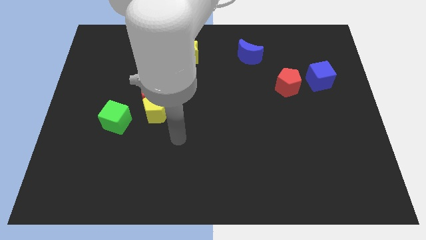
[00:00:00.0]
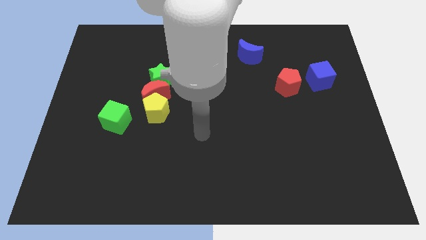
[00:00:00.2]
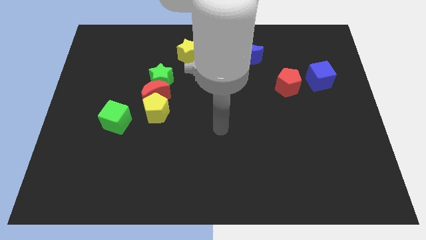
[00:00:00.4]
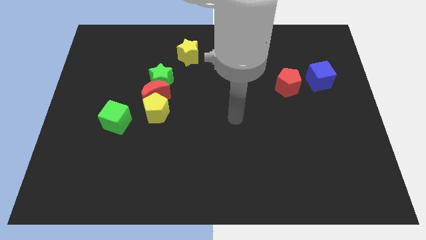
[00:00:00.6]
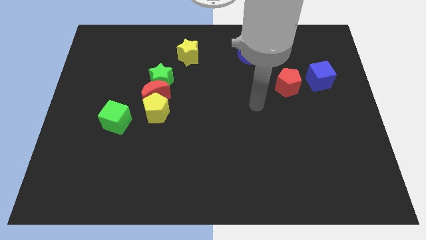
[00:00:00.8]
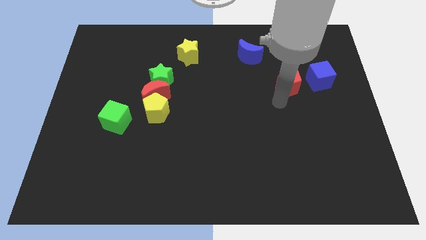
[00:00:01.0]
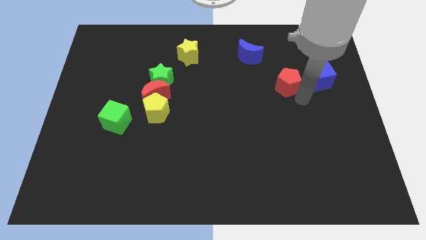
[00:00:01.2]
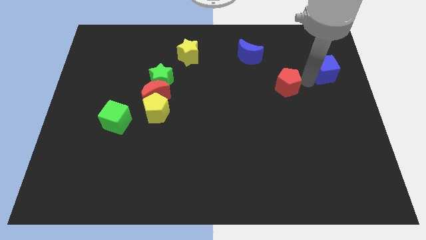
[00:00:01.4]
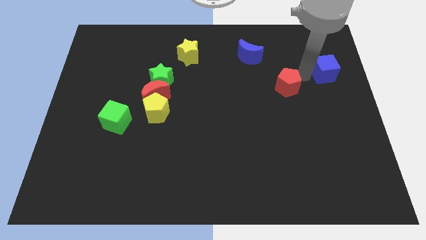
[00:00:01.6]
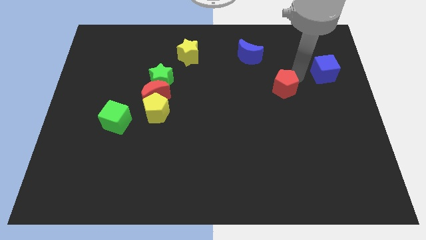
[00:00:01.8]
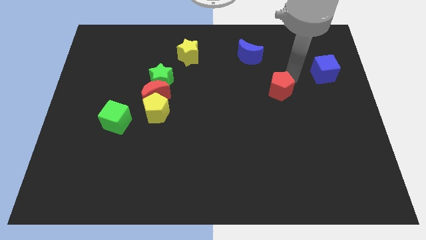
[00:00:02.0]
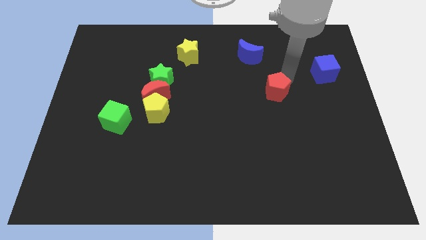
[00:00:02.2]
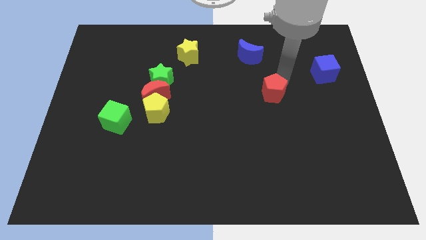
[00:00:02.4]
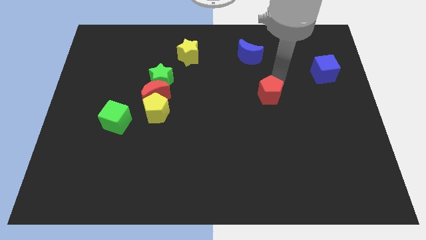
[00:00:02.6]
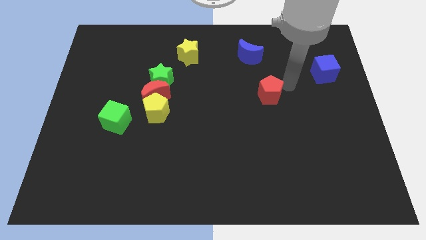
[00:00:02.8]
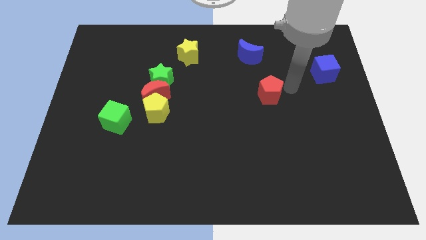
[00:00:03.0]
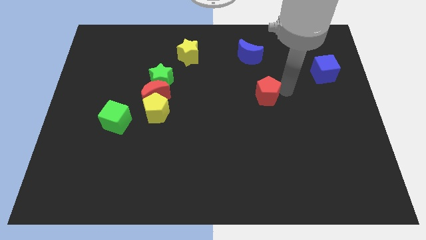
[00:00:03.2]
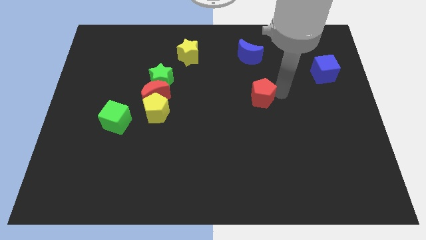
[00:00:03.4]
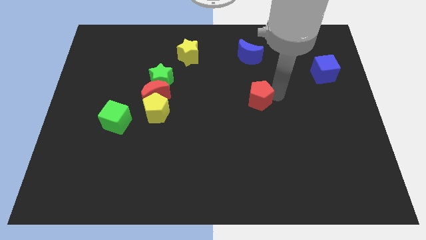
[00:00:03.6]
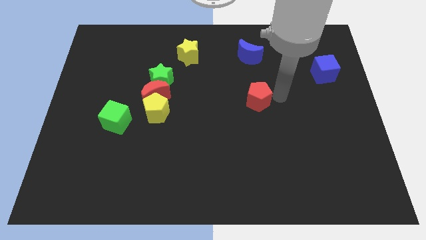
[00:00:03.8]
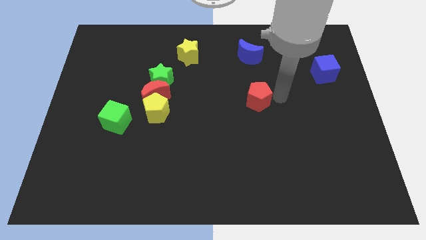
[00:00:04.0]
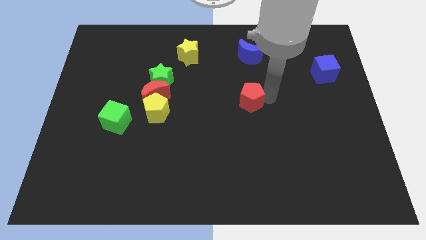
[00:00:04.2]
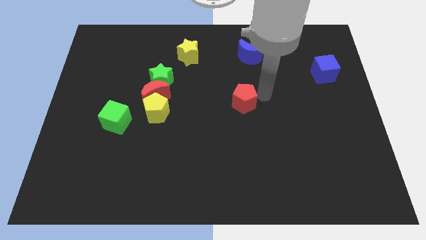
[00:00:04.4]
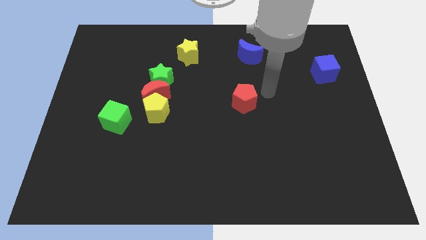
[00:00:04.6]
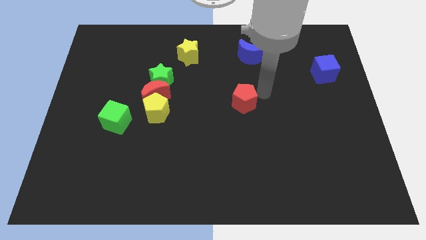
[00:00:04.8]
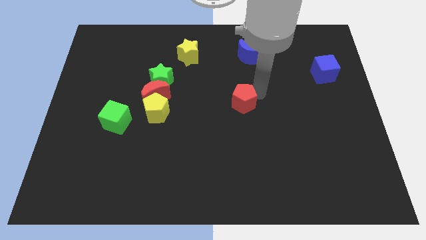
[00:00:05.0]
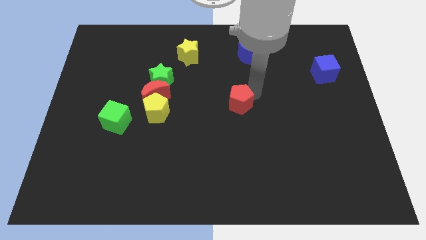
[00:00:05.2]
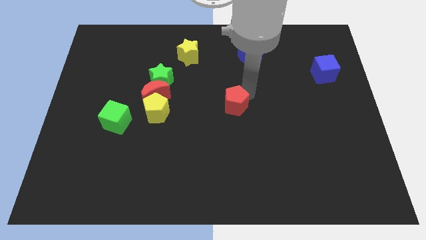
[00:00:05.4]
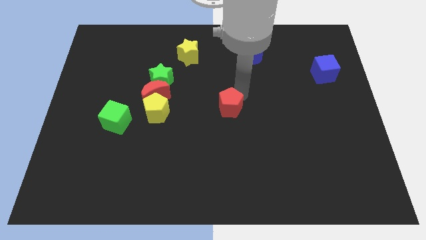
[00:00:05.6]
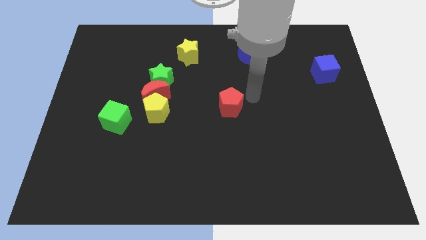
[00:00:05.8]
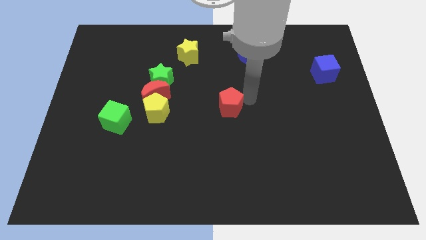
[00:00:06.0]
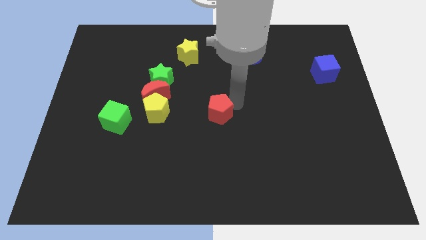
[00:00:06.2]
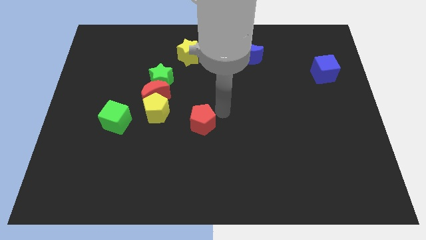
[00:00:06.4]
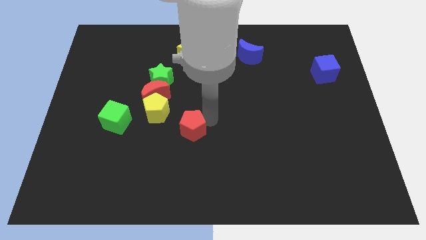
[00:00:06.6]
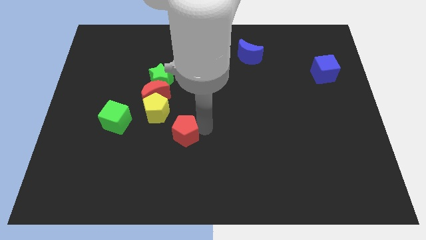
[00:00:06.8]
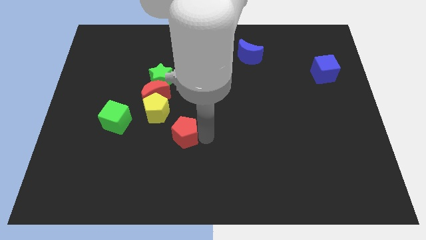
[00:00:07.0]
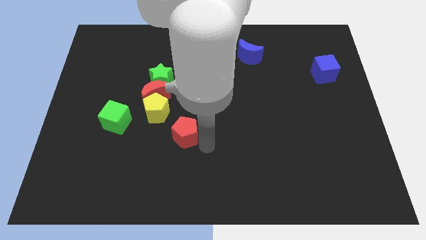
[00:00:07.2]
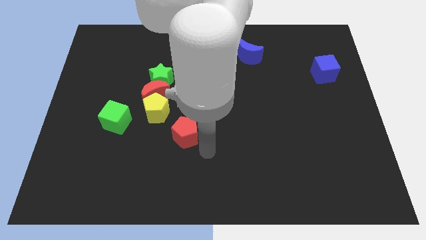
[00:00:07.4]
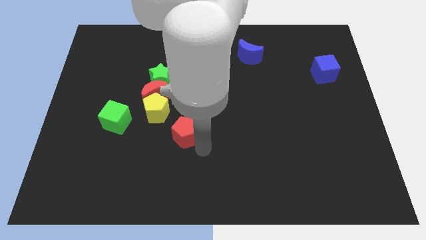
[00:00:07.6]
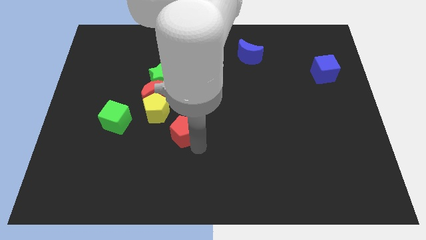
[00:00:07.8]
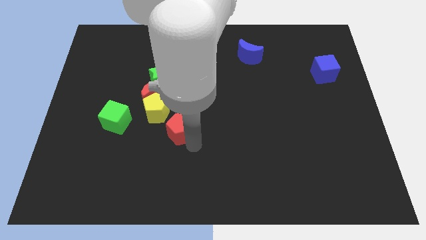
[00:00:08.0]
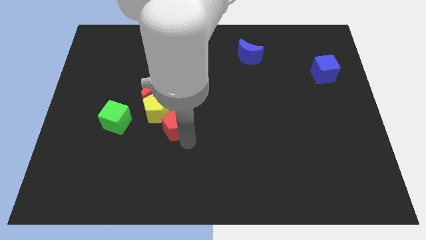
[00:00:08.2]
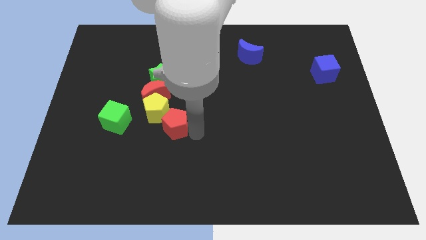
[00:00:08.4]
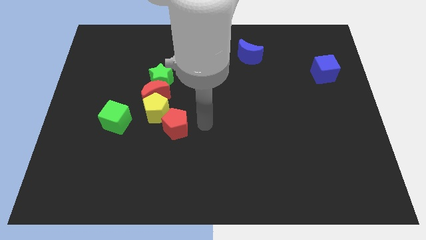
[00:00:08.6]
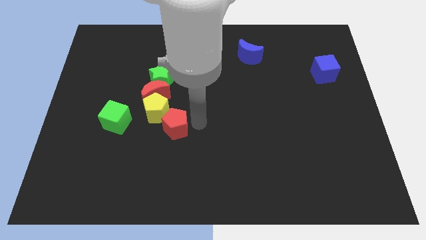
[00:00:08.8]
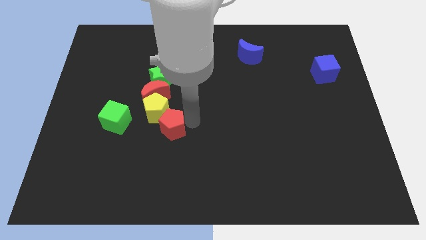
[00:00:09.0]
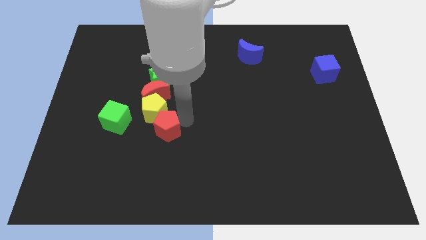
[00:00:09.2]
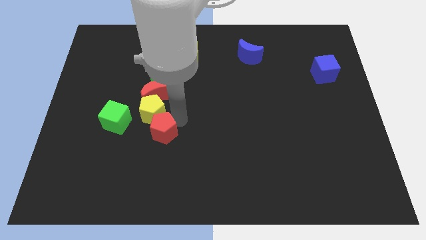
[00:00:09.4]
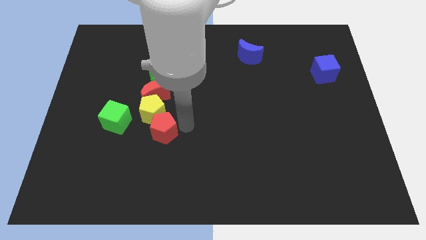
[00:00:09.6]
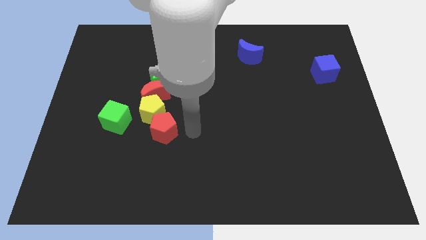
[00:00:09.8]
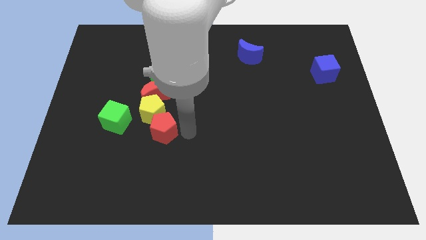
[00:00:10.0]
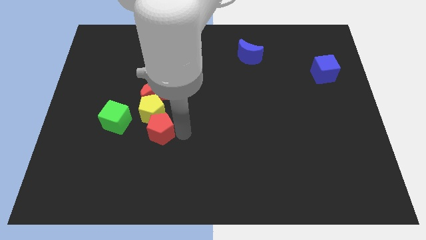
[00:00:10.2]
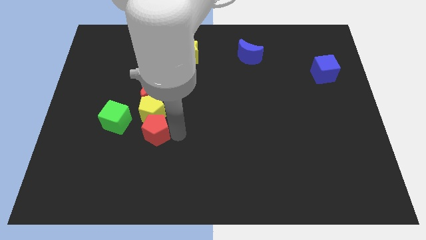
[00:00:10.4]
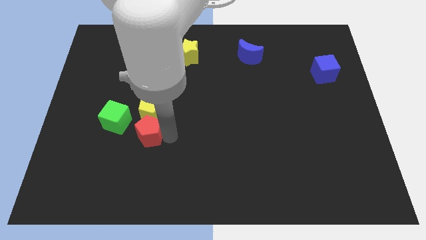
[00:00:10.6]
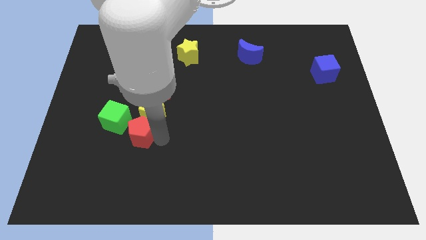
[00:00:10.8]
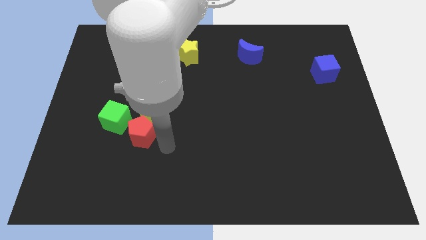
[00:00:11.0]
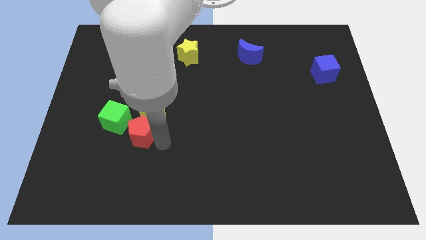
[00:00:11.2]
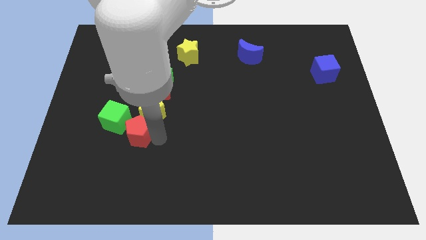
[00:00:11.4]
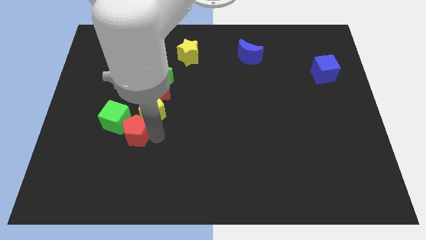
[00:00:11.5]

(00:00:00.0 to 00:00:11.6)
push the red pentagon next to the green cube

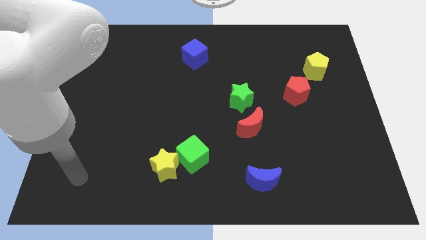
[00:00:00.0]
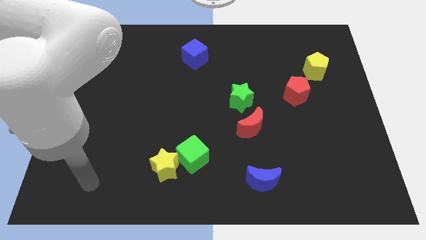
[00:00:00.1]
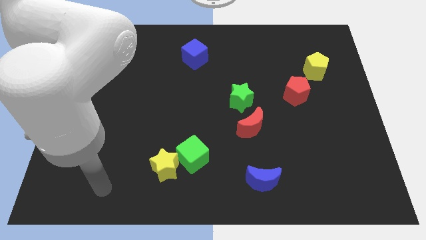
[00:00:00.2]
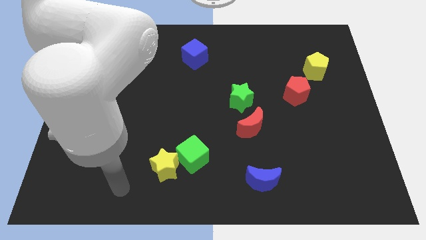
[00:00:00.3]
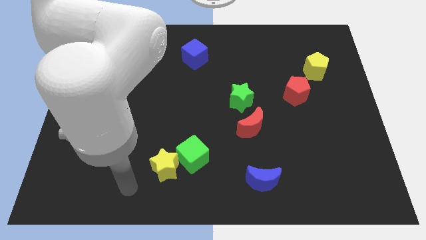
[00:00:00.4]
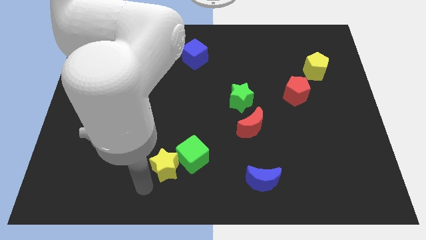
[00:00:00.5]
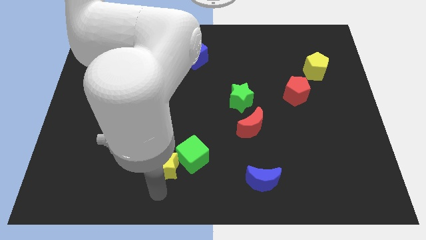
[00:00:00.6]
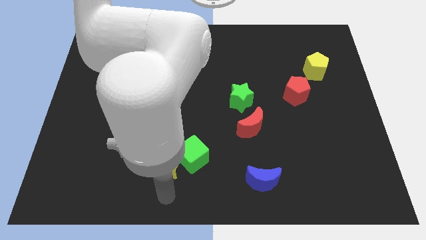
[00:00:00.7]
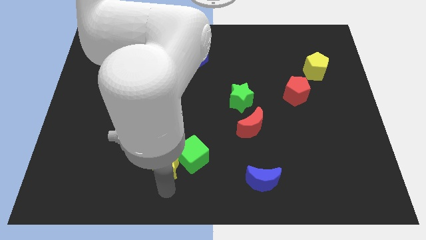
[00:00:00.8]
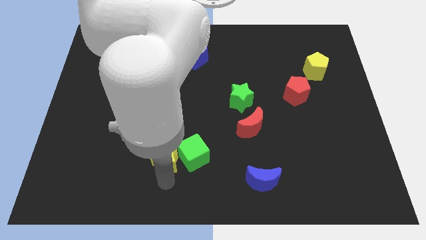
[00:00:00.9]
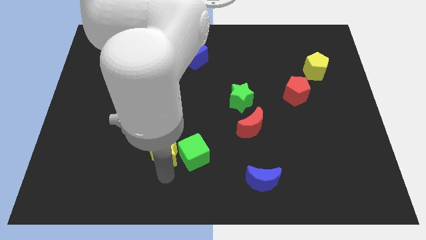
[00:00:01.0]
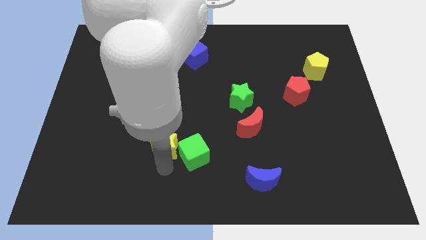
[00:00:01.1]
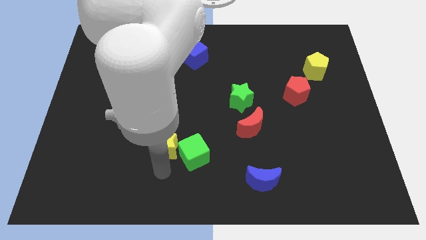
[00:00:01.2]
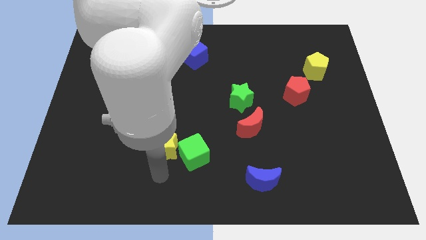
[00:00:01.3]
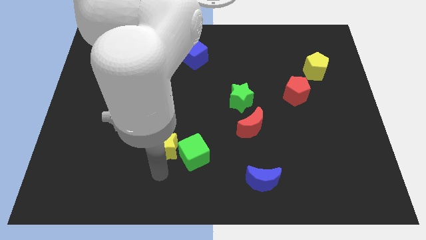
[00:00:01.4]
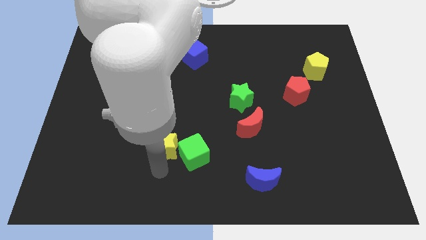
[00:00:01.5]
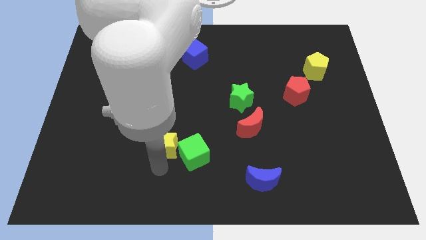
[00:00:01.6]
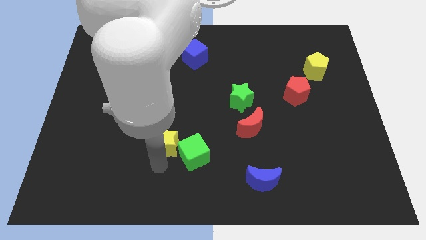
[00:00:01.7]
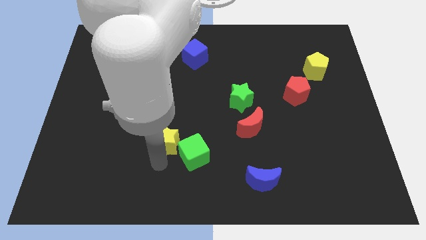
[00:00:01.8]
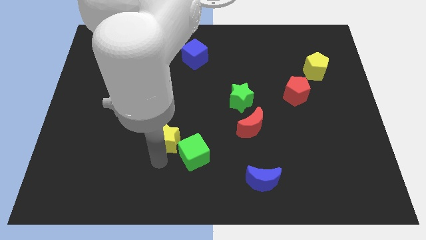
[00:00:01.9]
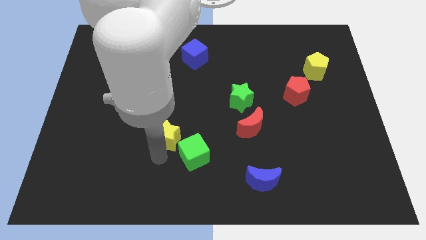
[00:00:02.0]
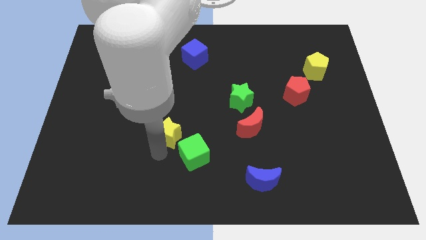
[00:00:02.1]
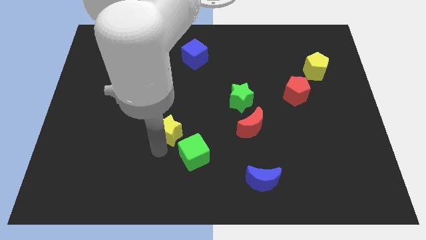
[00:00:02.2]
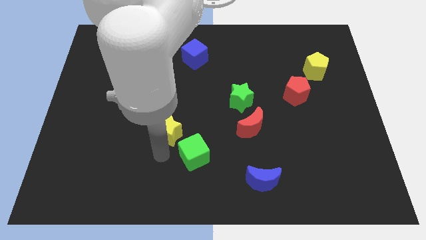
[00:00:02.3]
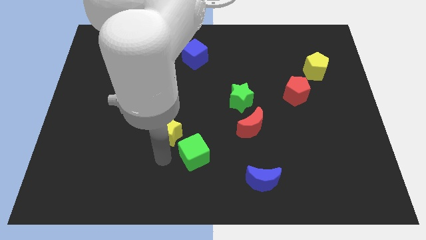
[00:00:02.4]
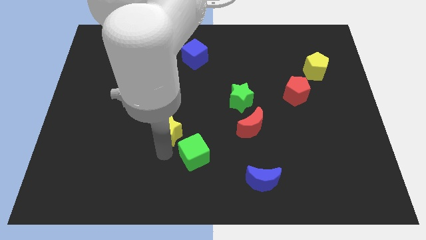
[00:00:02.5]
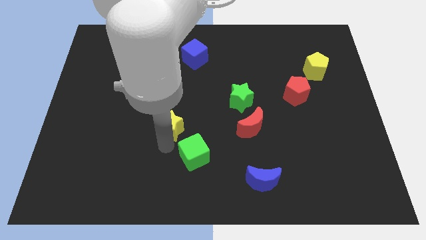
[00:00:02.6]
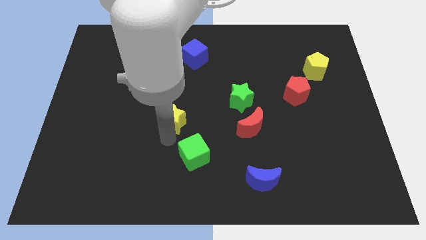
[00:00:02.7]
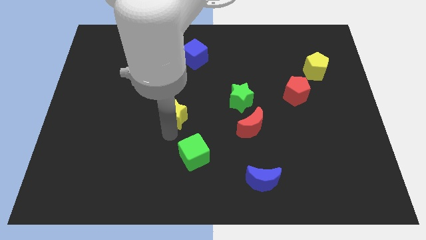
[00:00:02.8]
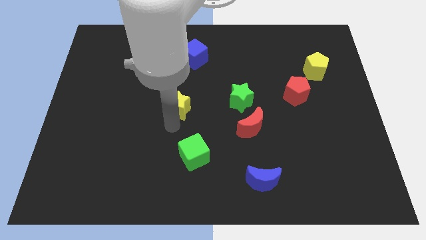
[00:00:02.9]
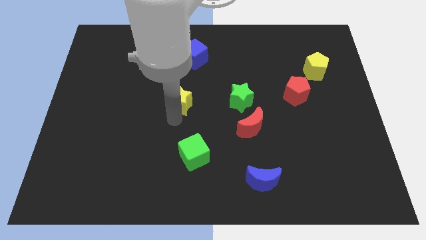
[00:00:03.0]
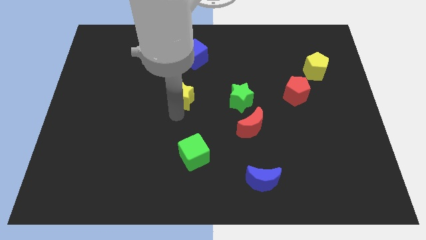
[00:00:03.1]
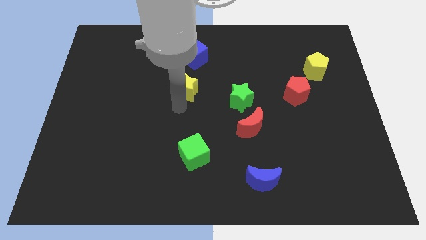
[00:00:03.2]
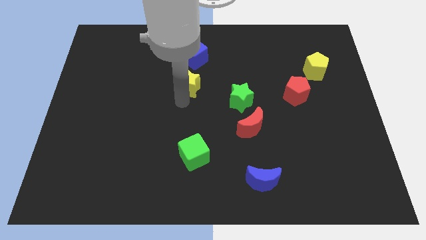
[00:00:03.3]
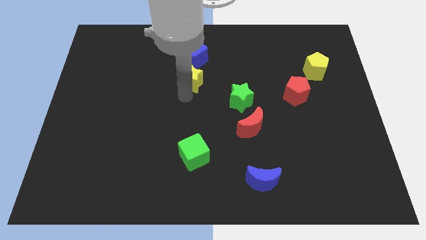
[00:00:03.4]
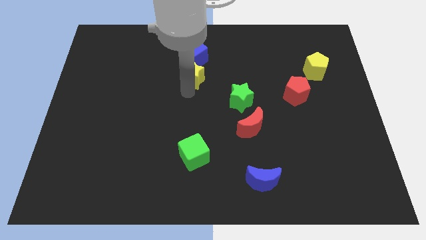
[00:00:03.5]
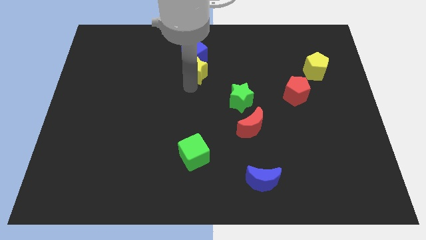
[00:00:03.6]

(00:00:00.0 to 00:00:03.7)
slide the yellow star to the blue cube
